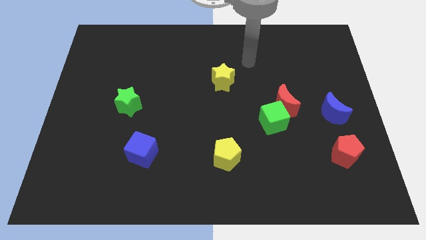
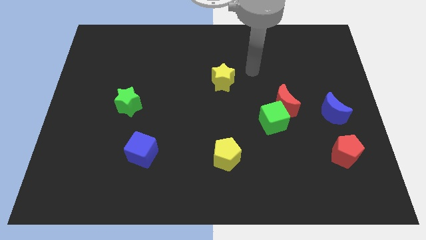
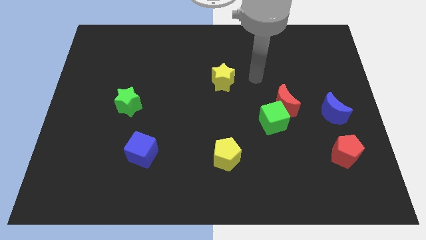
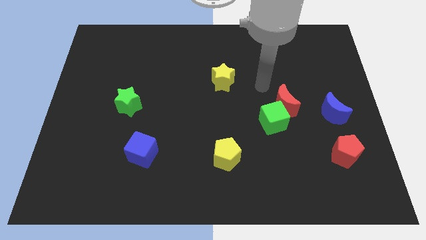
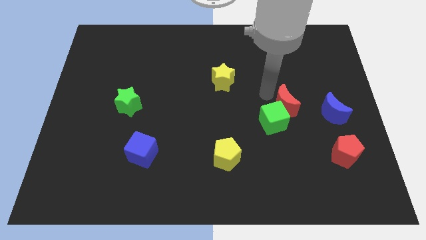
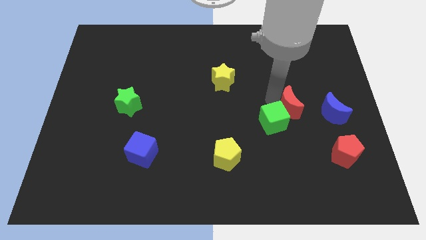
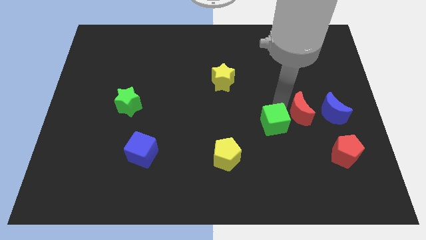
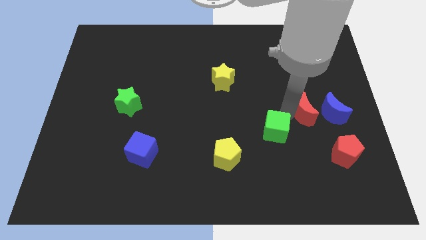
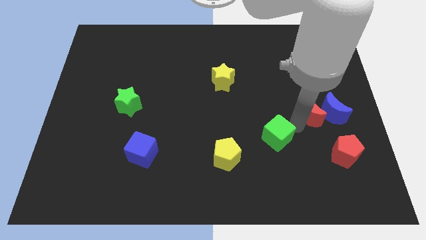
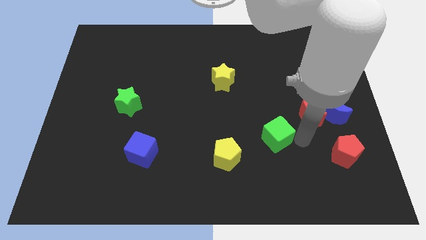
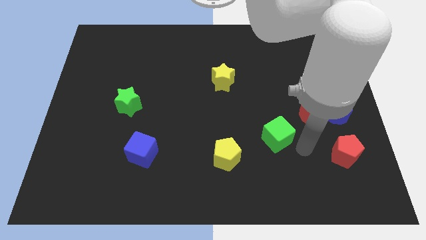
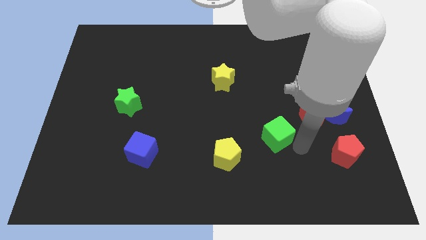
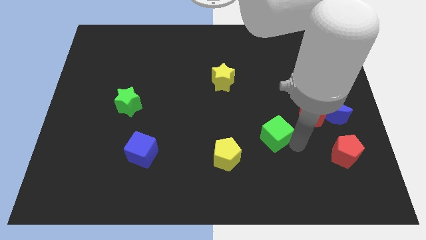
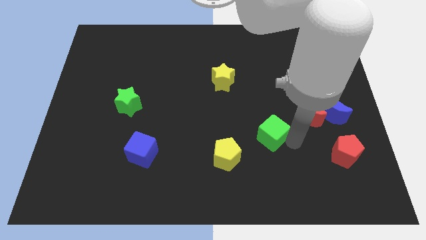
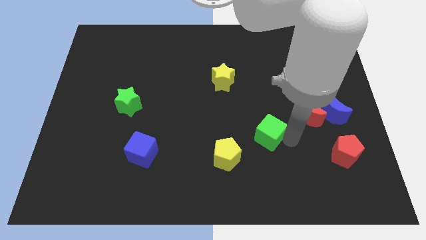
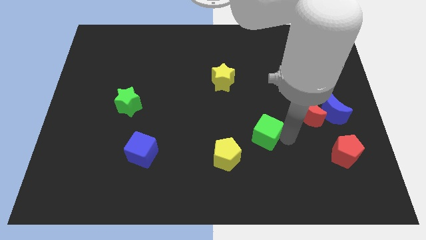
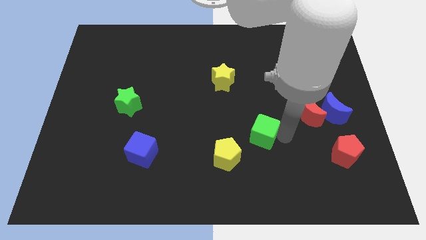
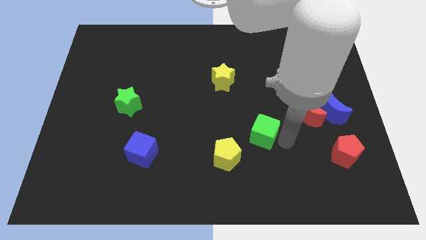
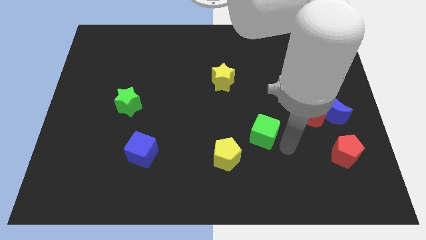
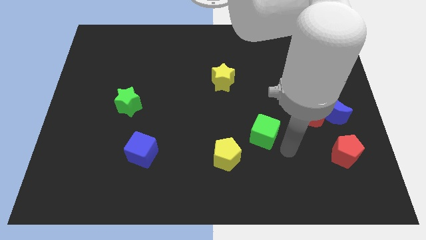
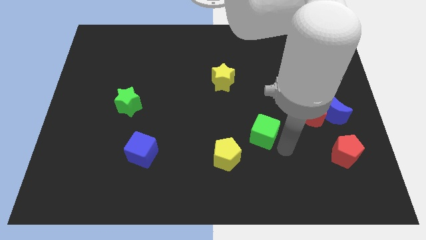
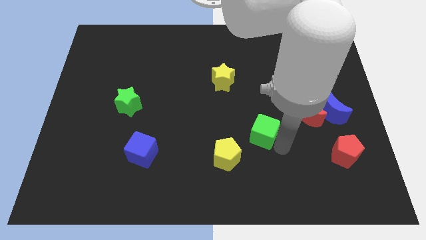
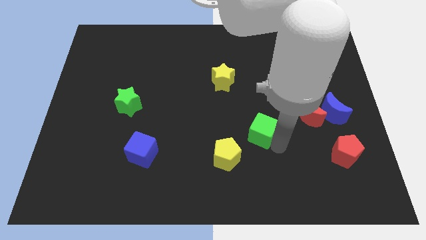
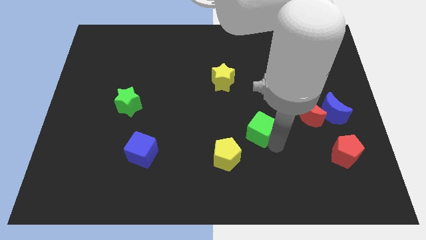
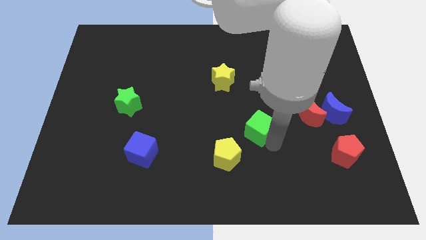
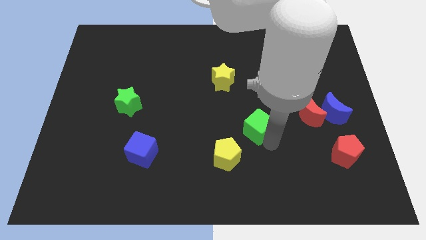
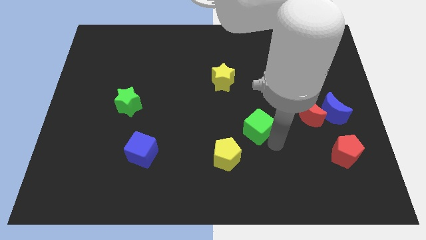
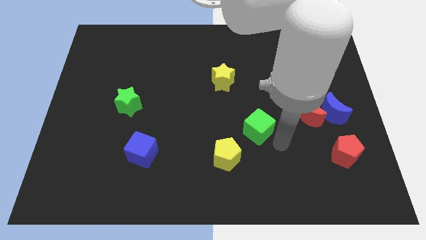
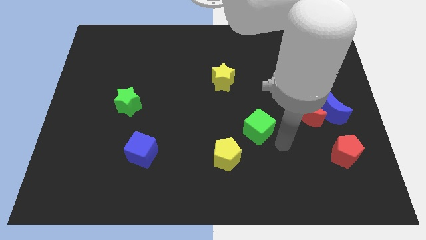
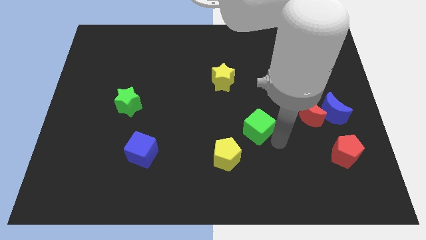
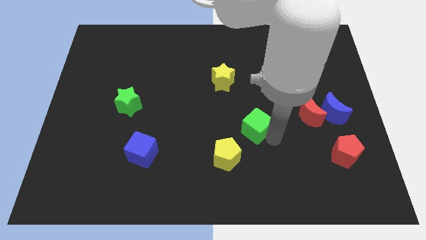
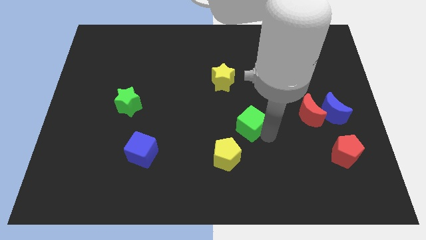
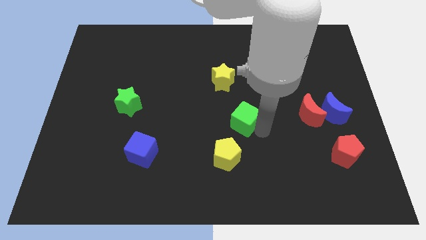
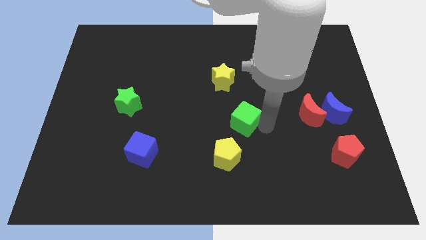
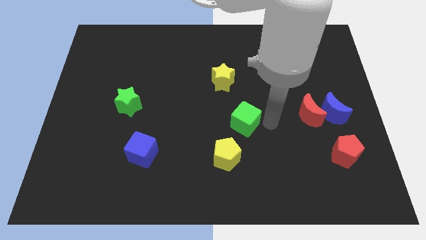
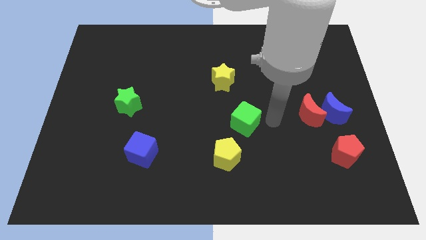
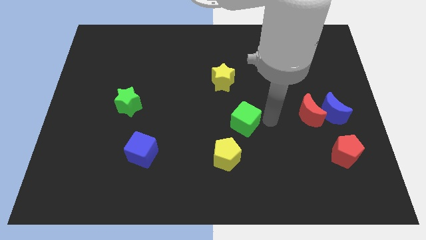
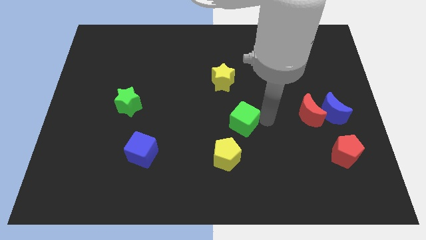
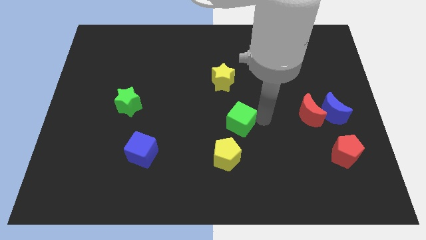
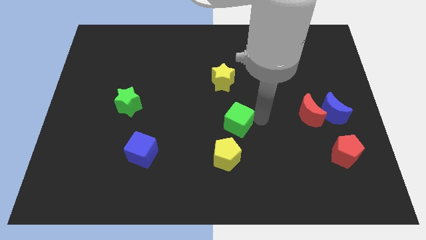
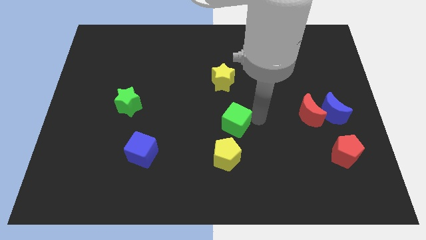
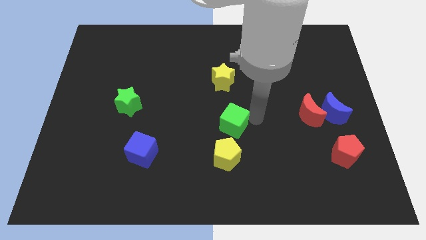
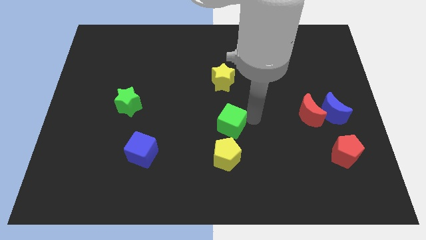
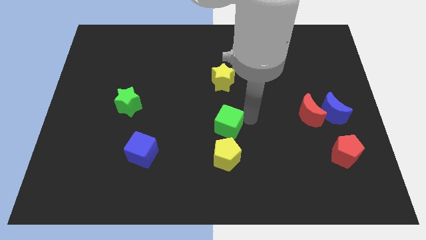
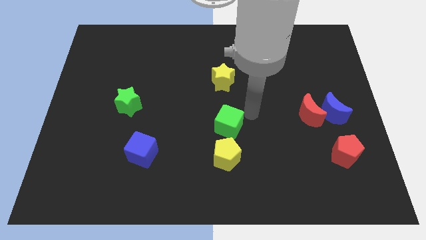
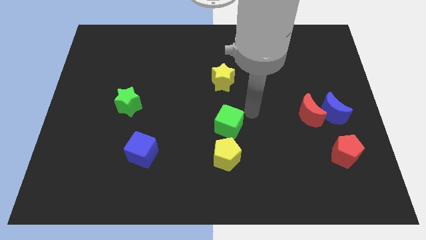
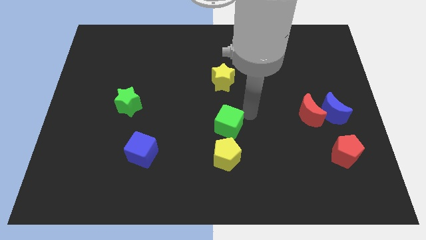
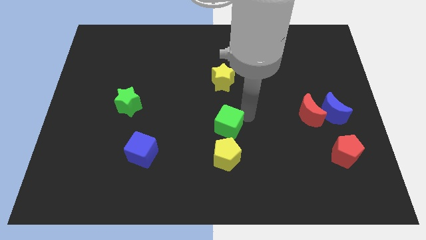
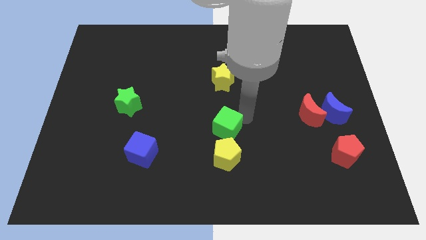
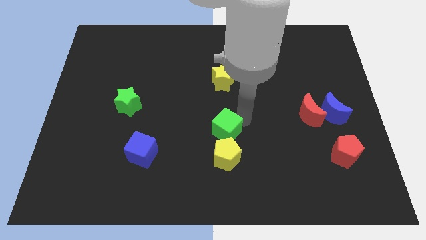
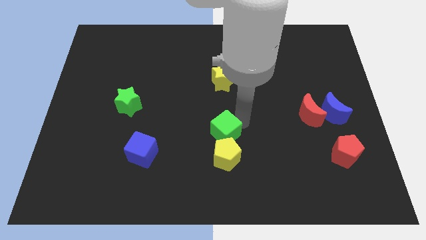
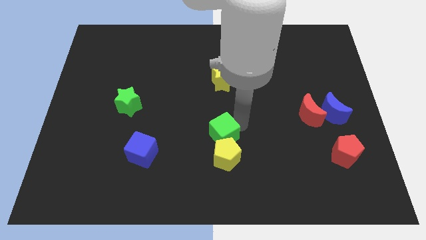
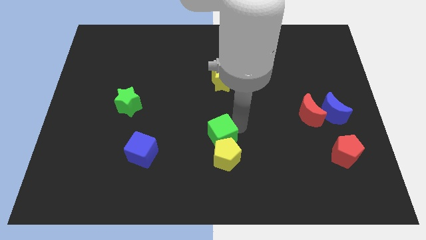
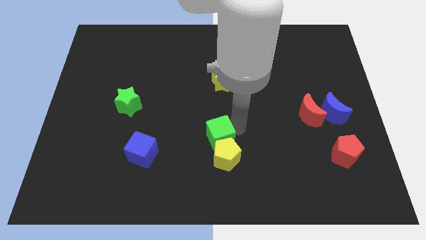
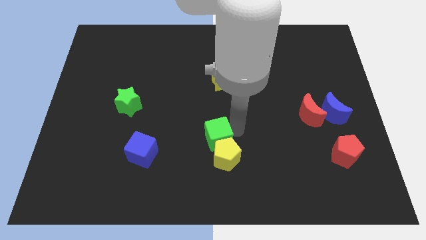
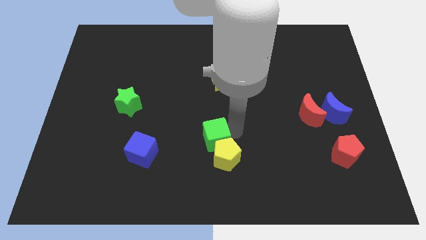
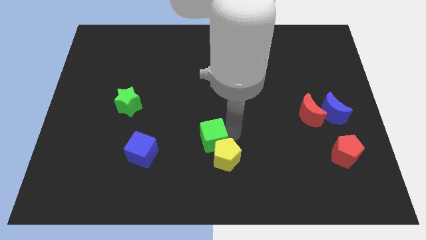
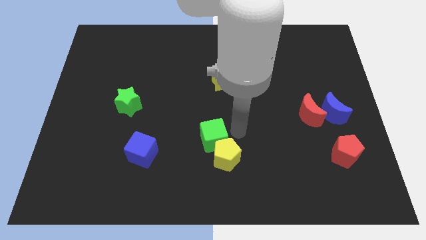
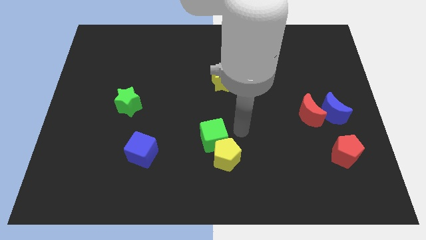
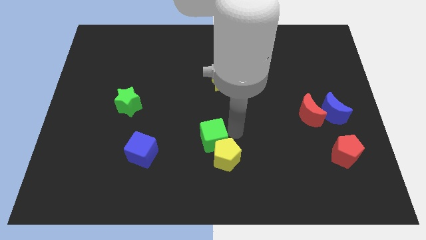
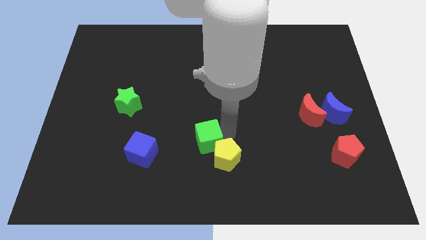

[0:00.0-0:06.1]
push the green cube to the left side of the yellow pentagon
